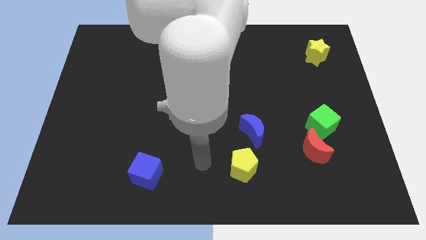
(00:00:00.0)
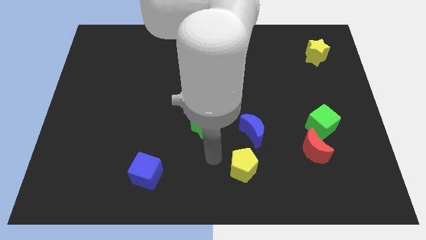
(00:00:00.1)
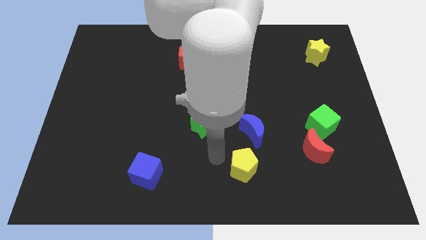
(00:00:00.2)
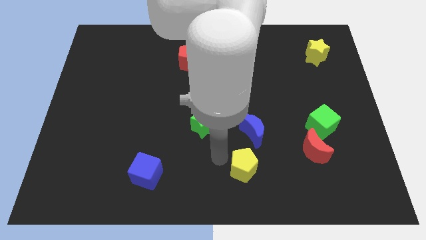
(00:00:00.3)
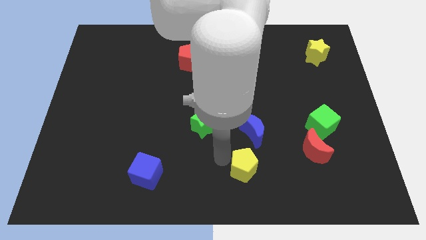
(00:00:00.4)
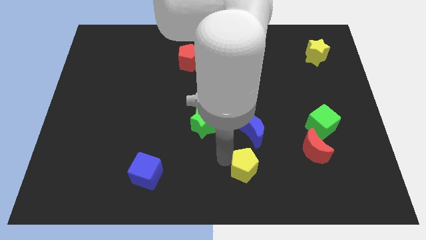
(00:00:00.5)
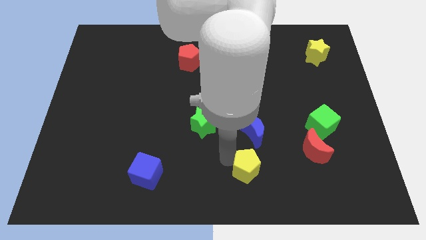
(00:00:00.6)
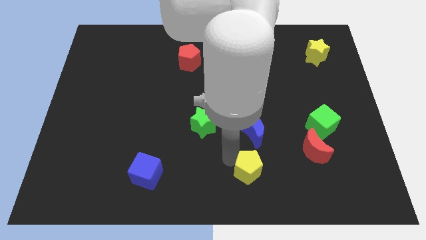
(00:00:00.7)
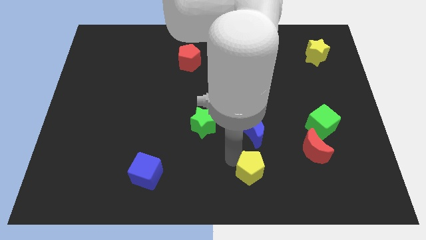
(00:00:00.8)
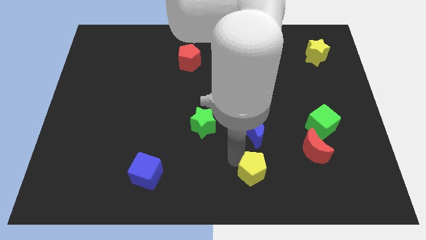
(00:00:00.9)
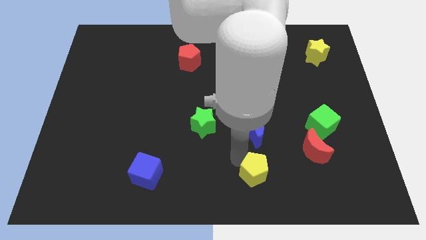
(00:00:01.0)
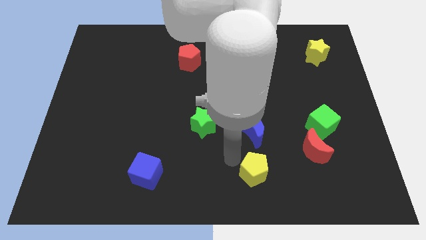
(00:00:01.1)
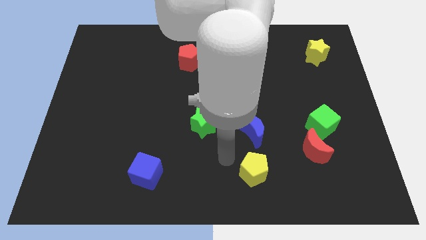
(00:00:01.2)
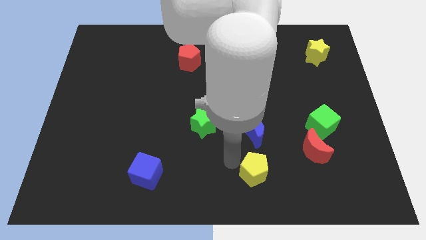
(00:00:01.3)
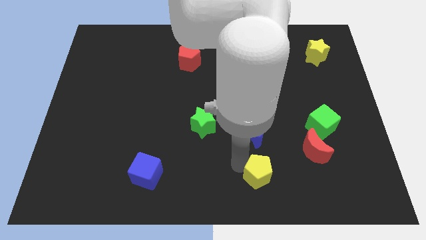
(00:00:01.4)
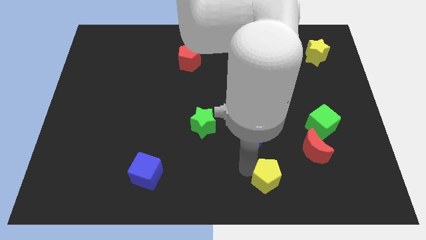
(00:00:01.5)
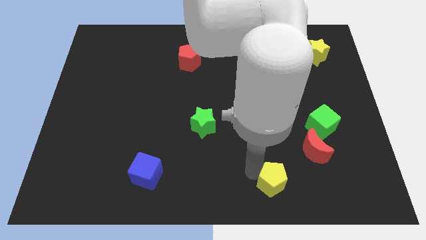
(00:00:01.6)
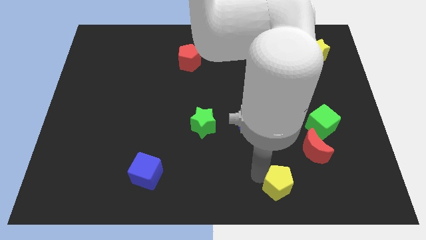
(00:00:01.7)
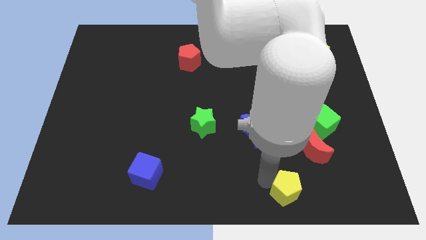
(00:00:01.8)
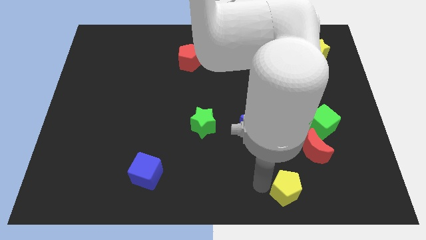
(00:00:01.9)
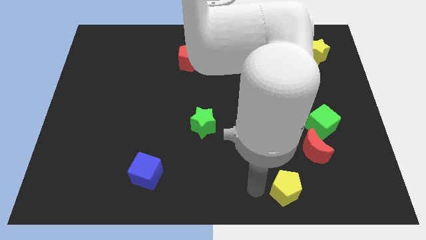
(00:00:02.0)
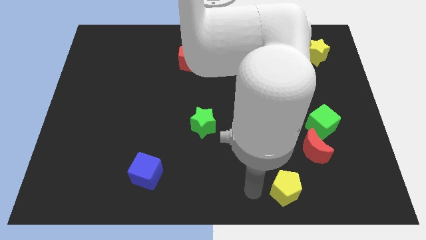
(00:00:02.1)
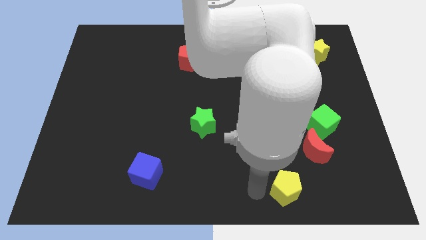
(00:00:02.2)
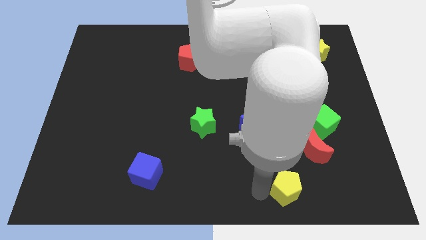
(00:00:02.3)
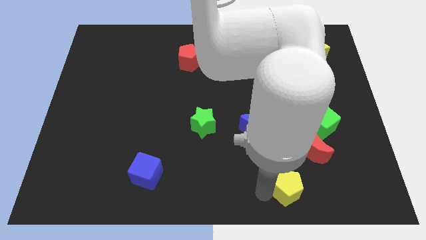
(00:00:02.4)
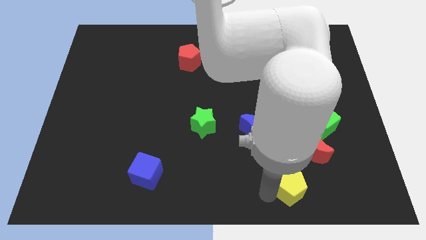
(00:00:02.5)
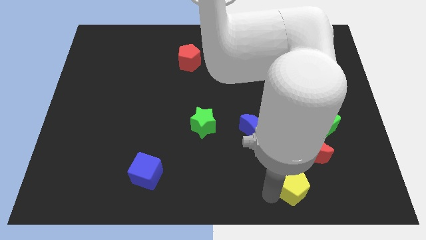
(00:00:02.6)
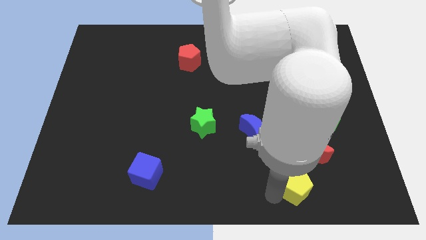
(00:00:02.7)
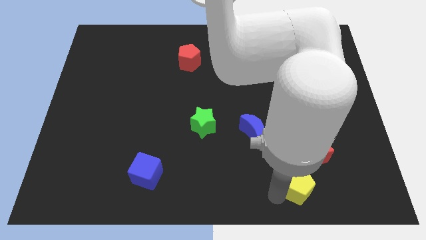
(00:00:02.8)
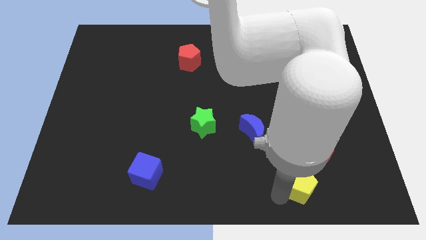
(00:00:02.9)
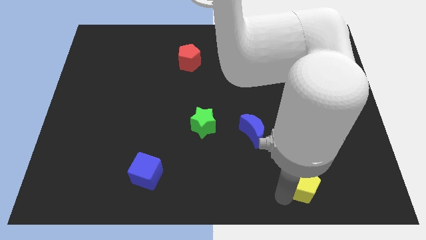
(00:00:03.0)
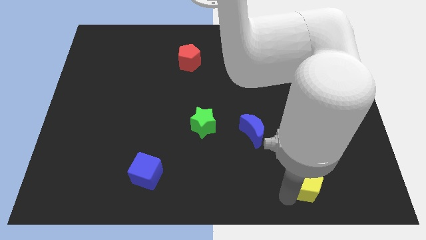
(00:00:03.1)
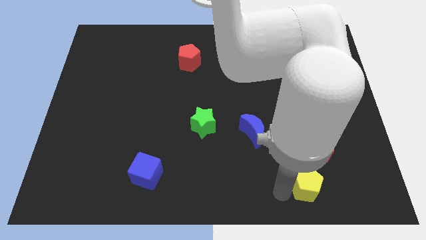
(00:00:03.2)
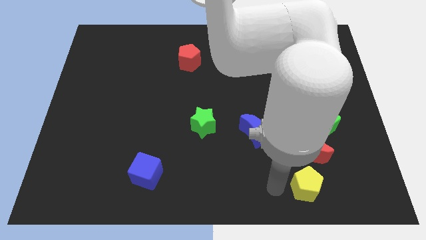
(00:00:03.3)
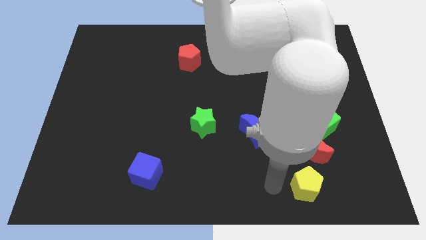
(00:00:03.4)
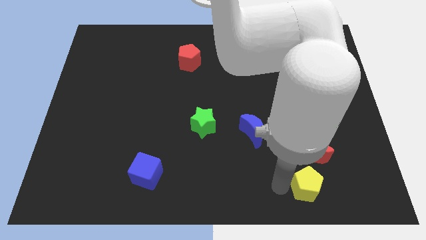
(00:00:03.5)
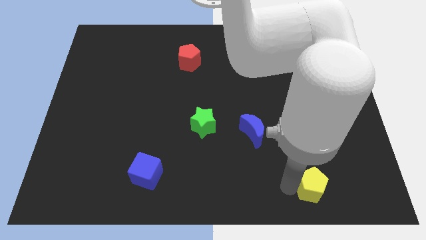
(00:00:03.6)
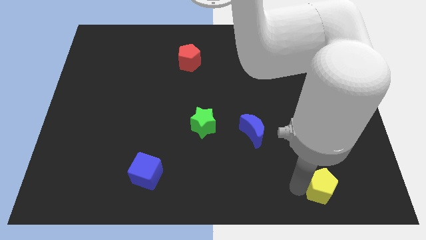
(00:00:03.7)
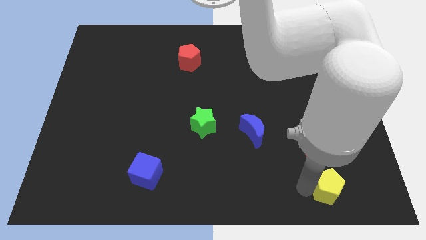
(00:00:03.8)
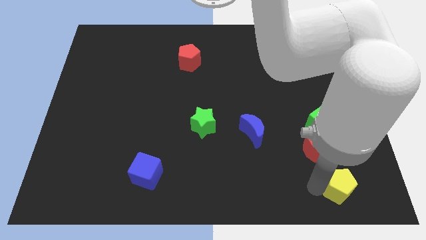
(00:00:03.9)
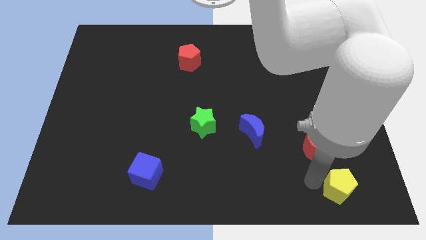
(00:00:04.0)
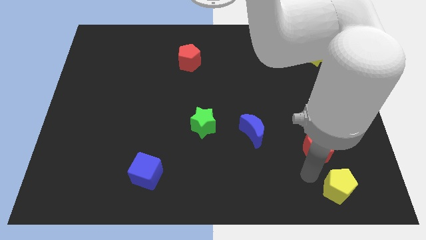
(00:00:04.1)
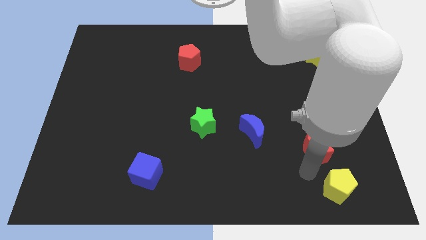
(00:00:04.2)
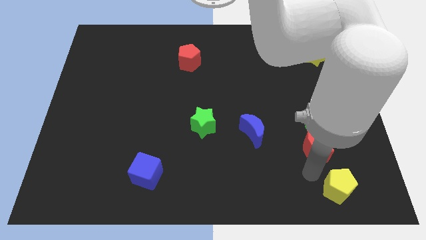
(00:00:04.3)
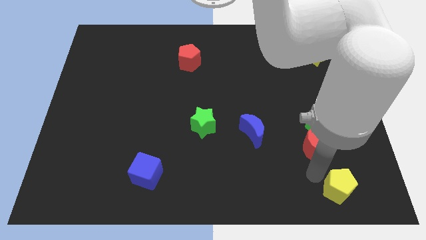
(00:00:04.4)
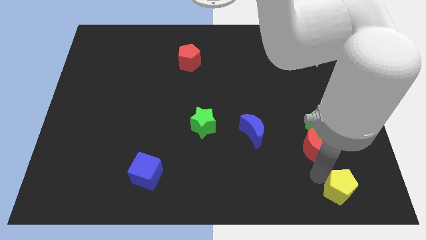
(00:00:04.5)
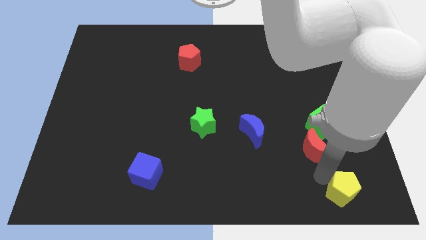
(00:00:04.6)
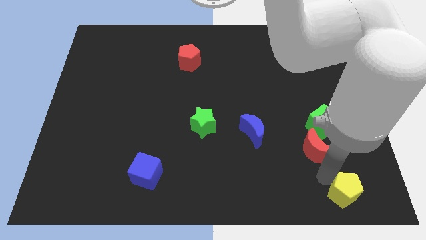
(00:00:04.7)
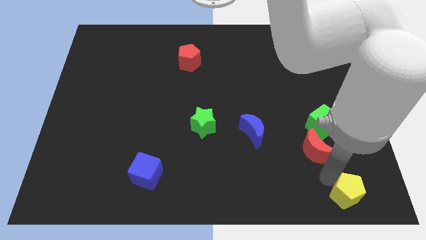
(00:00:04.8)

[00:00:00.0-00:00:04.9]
put the yellow pentagon to the bottom right

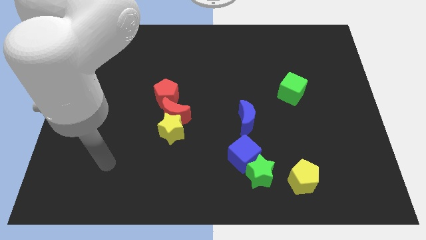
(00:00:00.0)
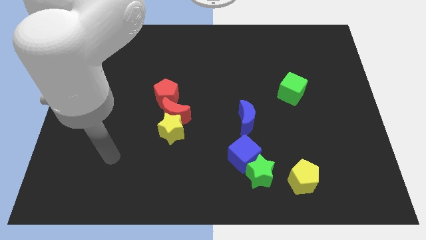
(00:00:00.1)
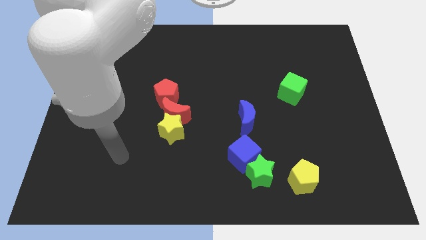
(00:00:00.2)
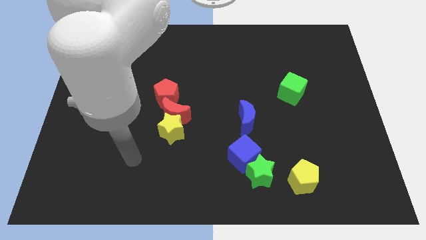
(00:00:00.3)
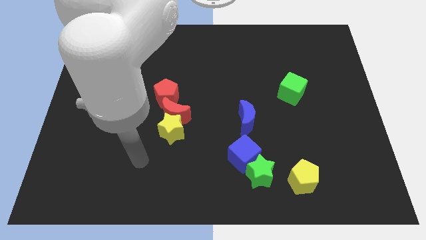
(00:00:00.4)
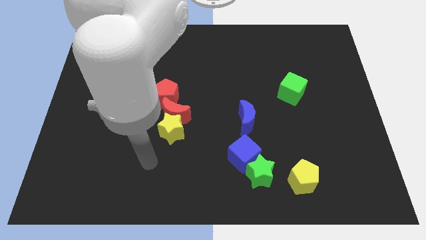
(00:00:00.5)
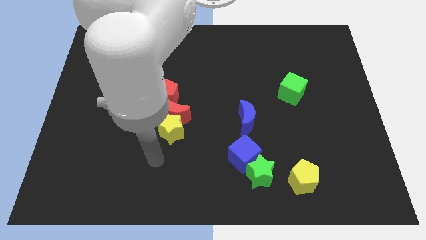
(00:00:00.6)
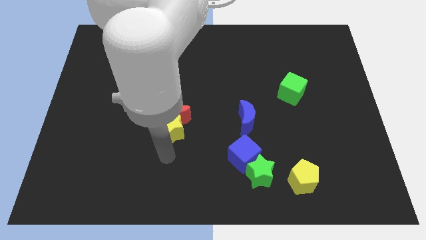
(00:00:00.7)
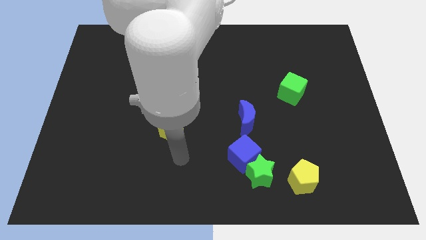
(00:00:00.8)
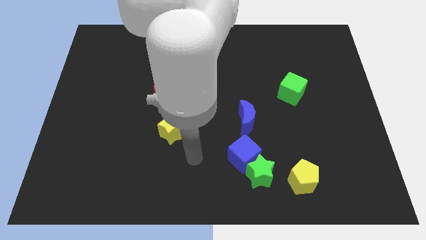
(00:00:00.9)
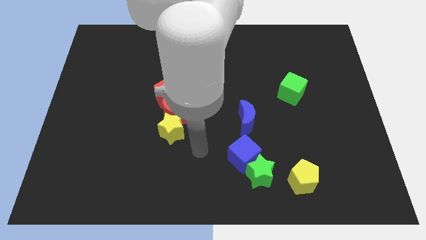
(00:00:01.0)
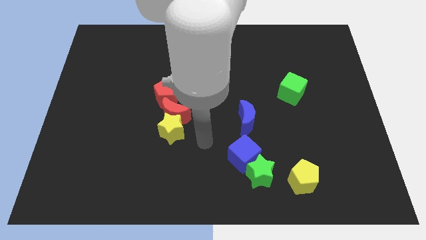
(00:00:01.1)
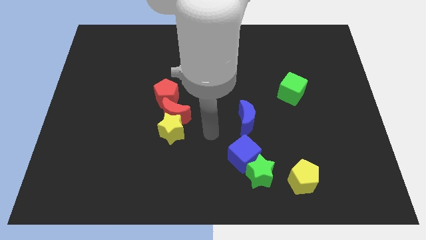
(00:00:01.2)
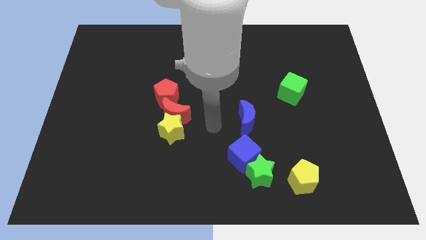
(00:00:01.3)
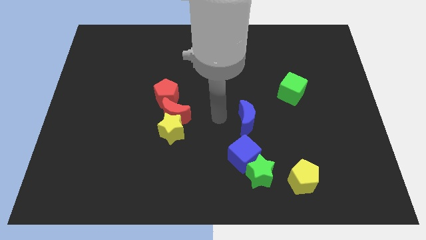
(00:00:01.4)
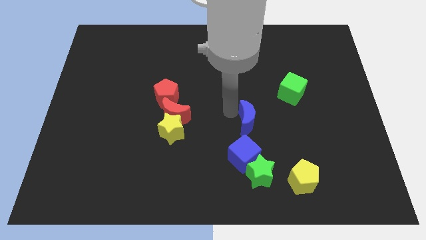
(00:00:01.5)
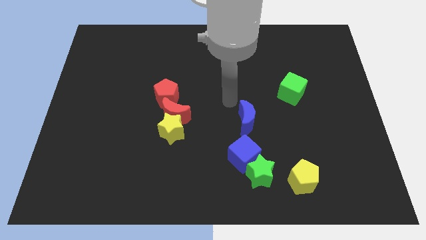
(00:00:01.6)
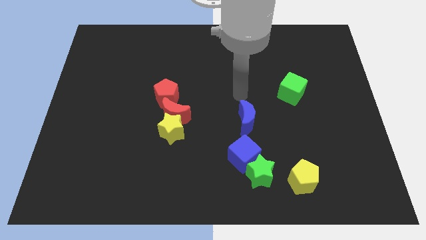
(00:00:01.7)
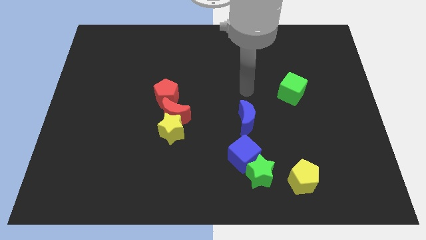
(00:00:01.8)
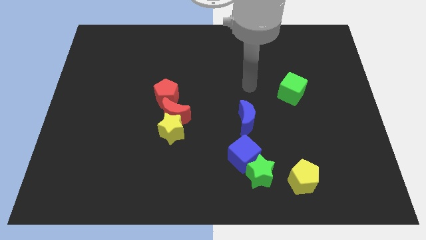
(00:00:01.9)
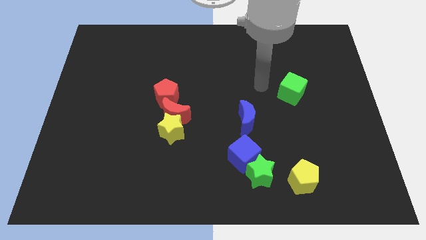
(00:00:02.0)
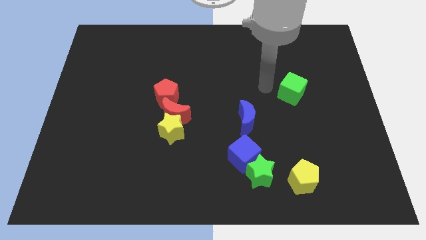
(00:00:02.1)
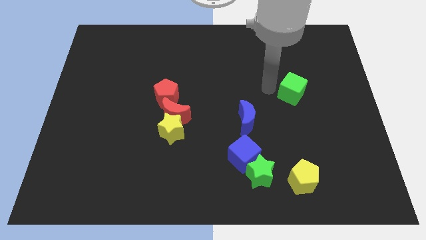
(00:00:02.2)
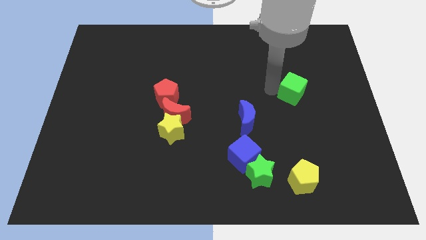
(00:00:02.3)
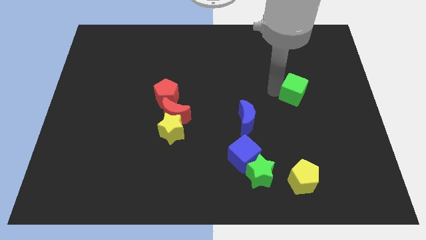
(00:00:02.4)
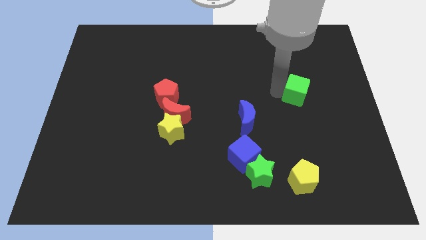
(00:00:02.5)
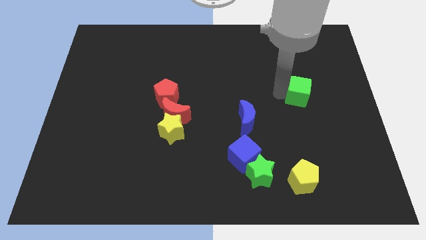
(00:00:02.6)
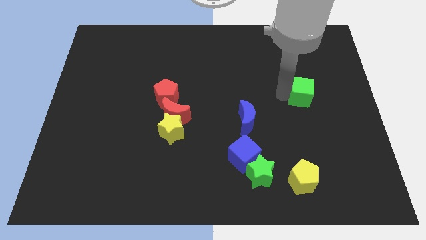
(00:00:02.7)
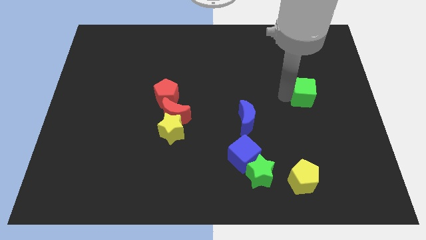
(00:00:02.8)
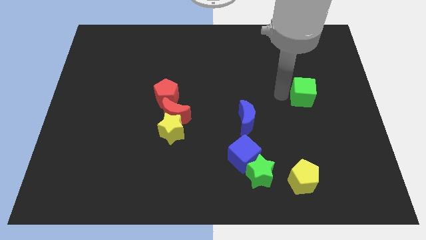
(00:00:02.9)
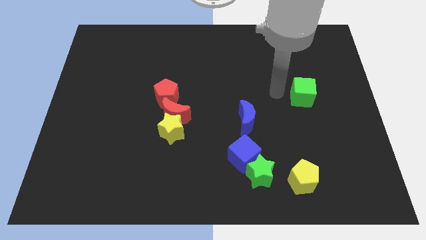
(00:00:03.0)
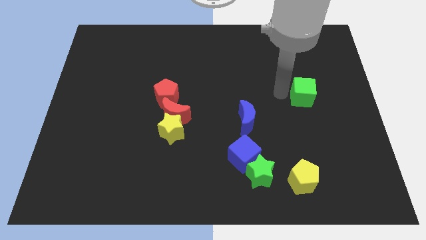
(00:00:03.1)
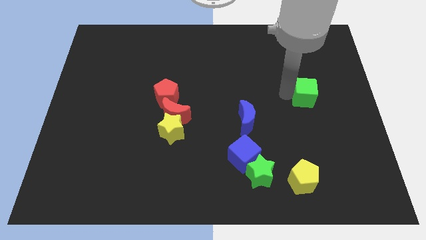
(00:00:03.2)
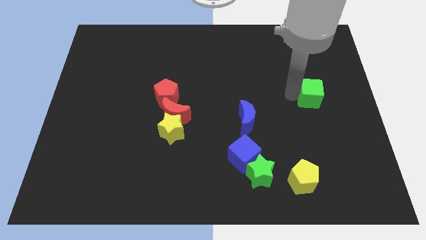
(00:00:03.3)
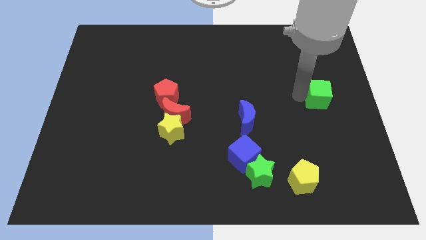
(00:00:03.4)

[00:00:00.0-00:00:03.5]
slide the green cube to the right side of the board
